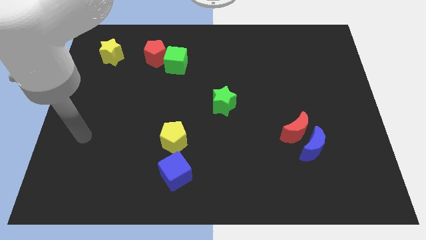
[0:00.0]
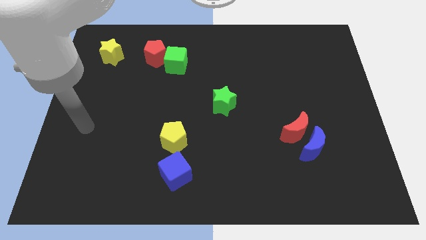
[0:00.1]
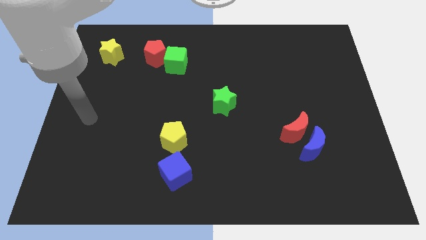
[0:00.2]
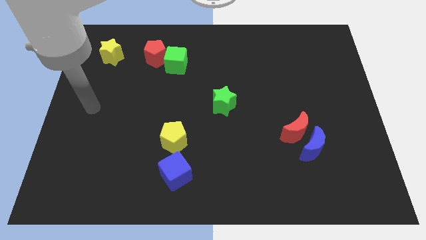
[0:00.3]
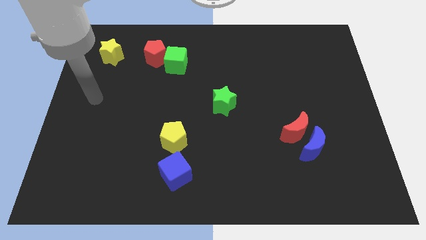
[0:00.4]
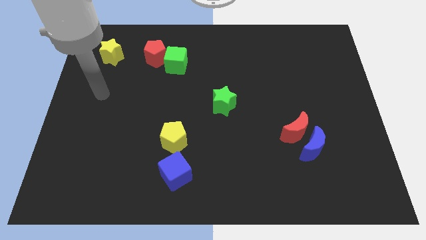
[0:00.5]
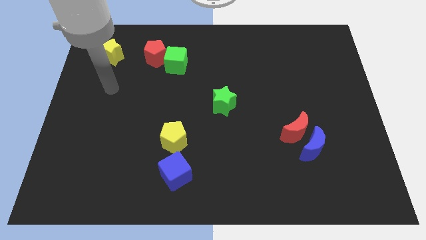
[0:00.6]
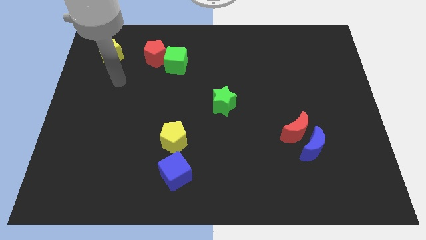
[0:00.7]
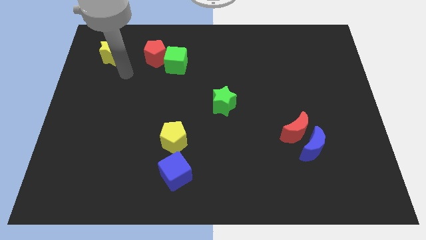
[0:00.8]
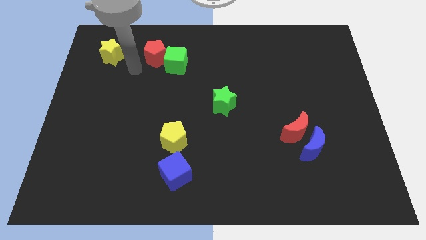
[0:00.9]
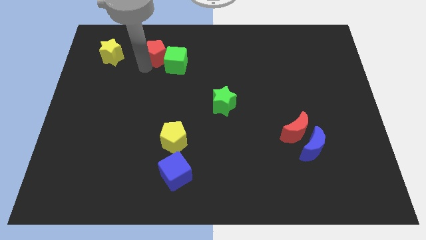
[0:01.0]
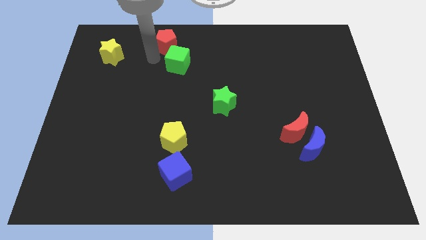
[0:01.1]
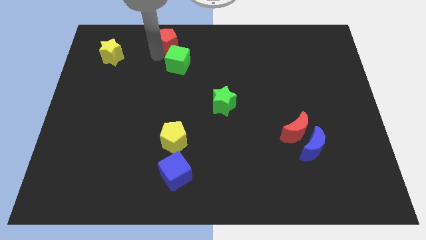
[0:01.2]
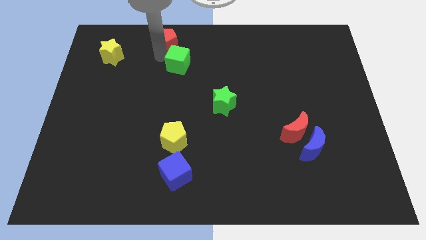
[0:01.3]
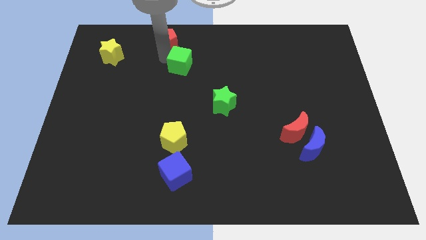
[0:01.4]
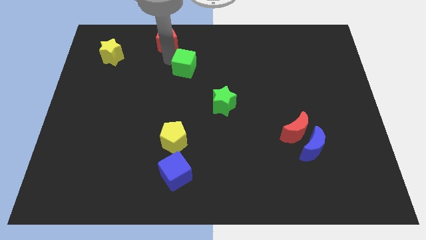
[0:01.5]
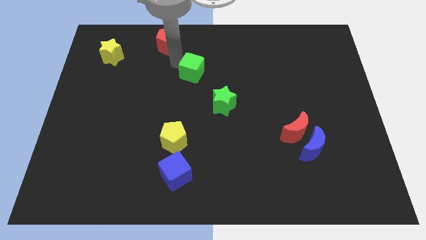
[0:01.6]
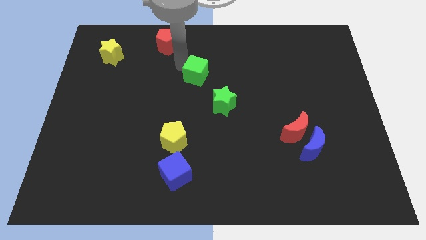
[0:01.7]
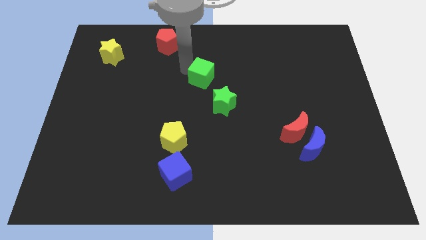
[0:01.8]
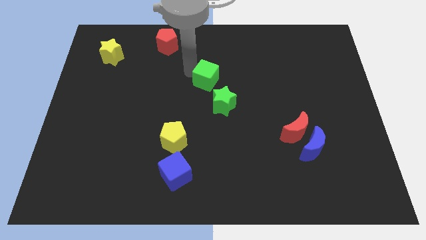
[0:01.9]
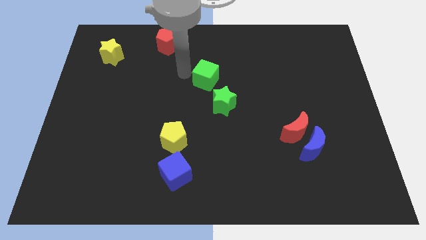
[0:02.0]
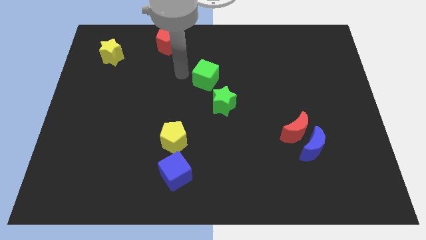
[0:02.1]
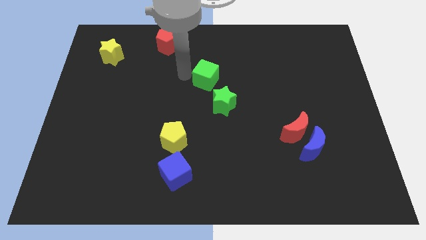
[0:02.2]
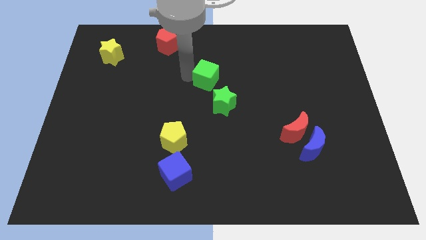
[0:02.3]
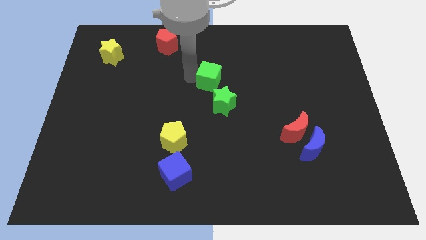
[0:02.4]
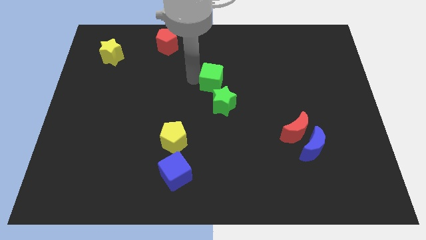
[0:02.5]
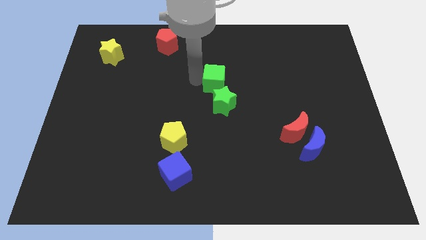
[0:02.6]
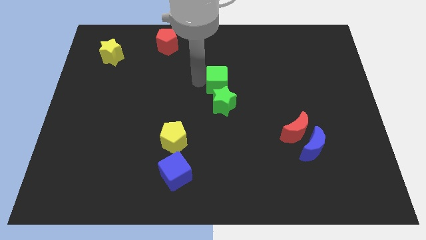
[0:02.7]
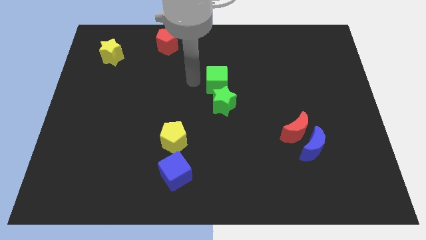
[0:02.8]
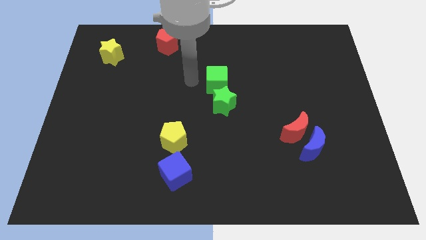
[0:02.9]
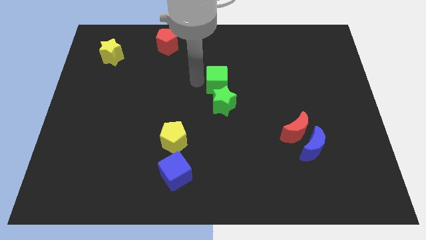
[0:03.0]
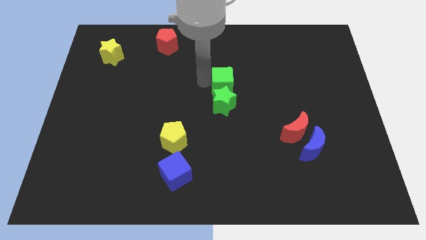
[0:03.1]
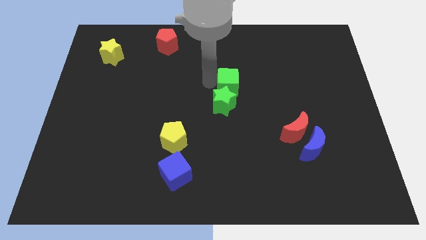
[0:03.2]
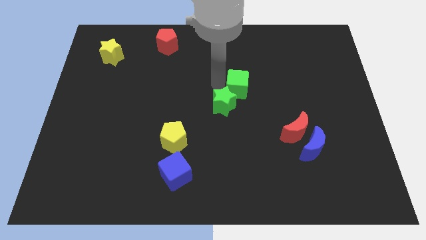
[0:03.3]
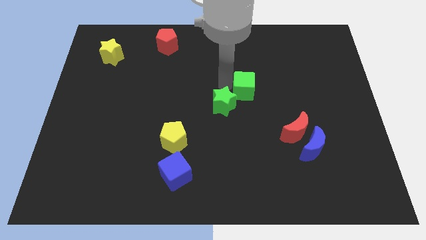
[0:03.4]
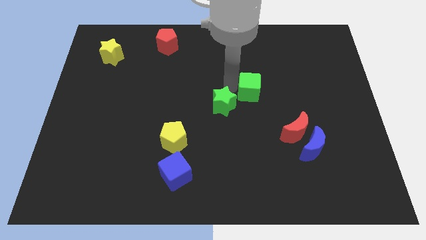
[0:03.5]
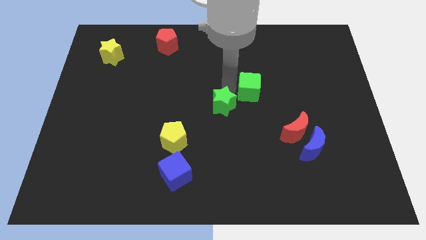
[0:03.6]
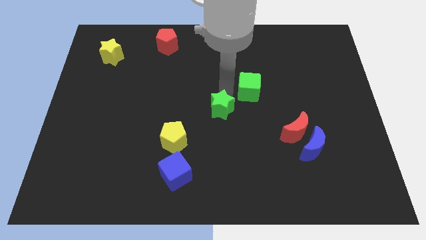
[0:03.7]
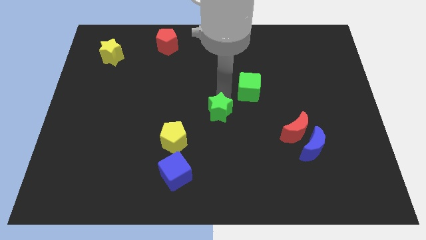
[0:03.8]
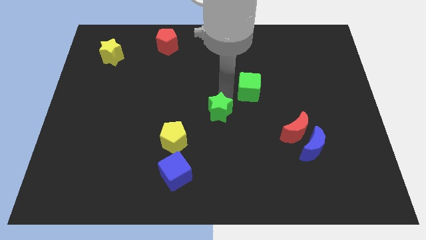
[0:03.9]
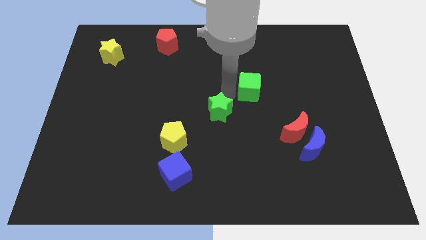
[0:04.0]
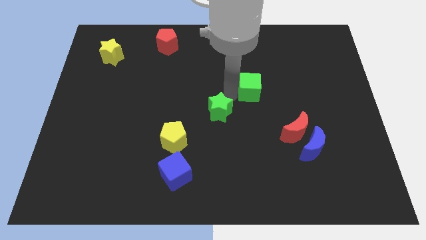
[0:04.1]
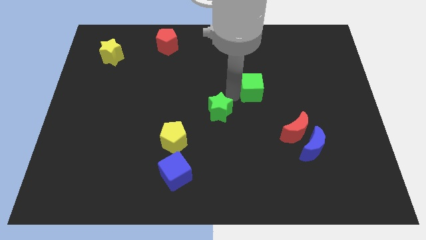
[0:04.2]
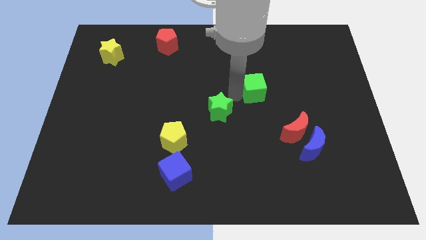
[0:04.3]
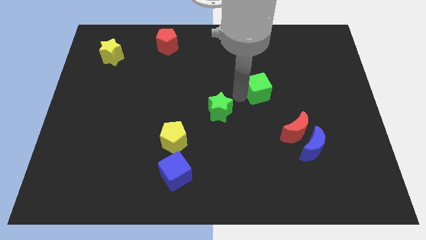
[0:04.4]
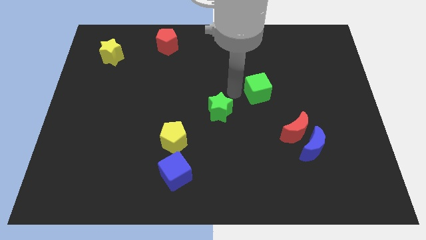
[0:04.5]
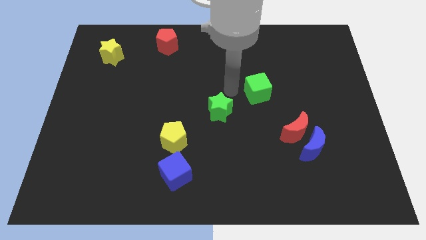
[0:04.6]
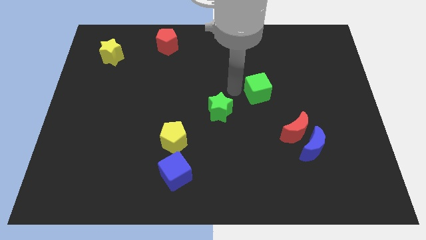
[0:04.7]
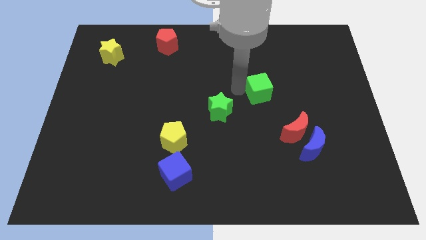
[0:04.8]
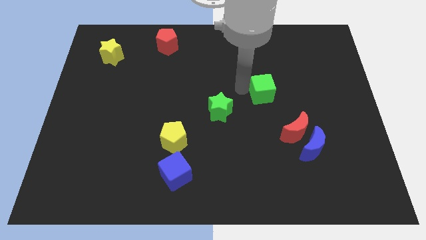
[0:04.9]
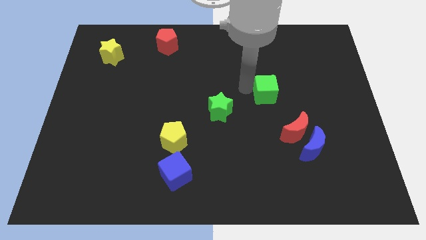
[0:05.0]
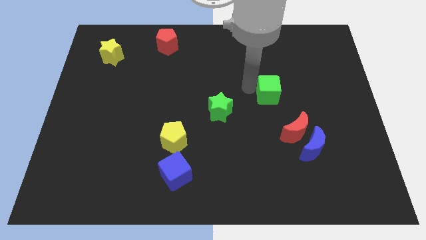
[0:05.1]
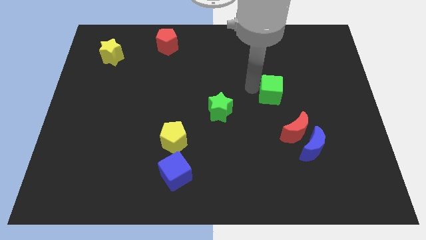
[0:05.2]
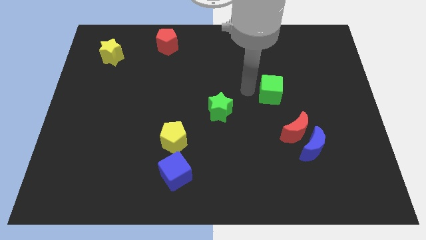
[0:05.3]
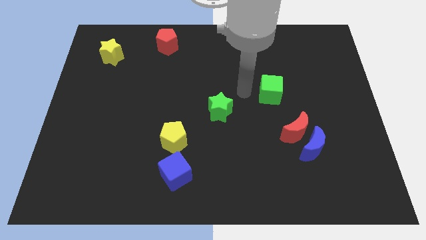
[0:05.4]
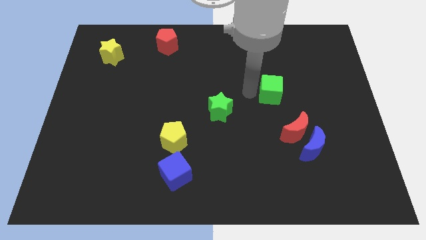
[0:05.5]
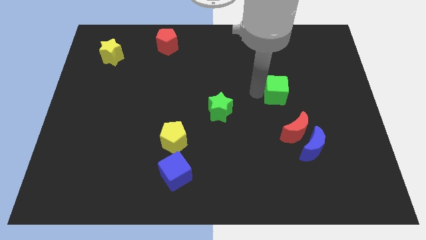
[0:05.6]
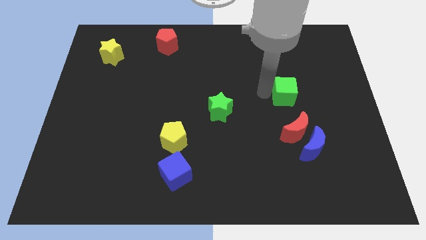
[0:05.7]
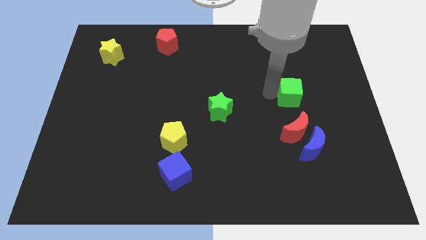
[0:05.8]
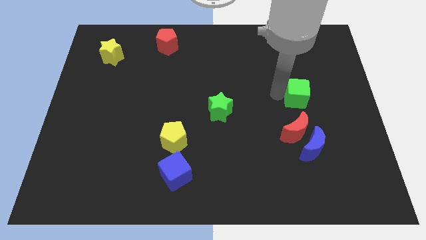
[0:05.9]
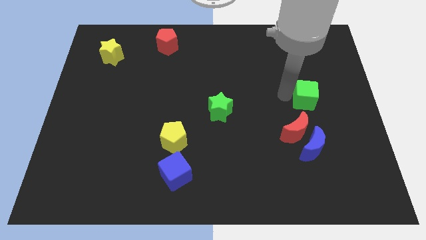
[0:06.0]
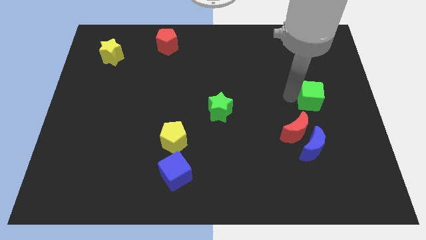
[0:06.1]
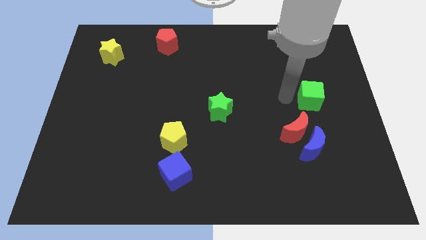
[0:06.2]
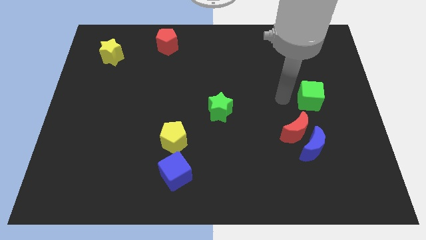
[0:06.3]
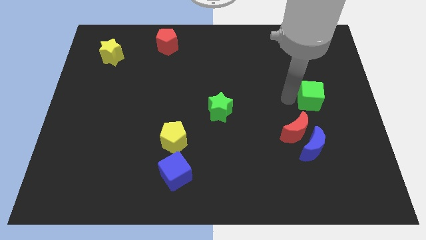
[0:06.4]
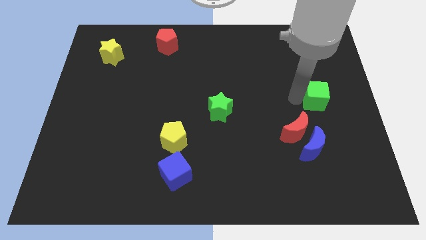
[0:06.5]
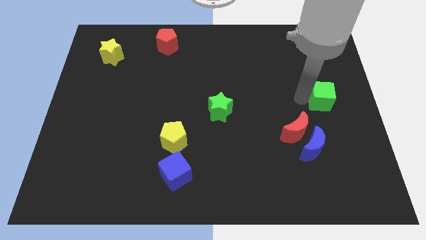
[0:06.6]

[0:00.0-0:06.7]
move the green cube to the right side

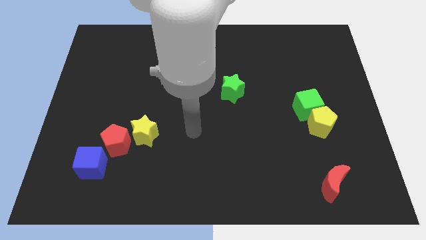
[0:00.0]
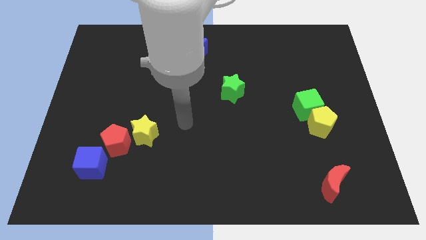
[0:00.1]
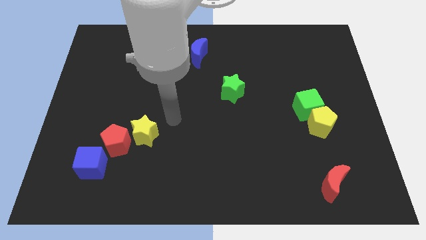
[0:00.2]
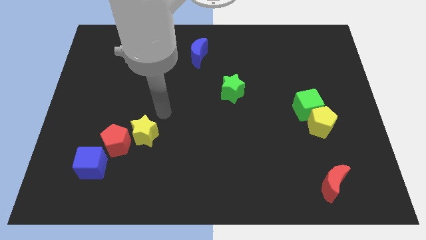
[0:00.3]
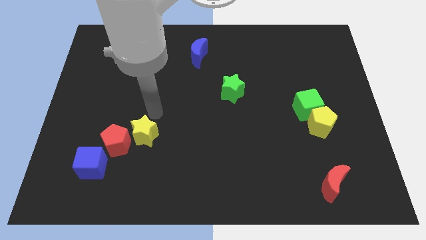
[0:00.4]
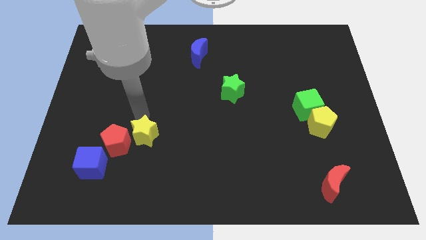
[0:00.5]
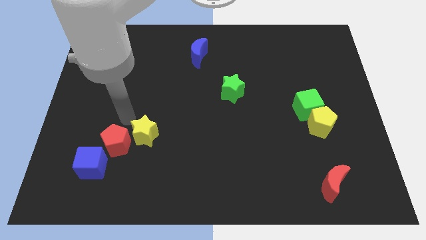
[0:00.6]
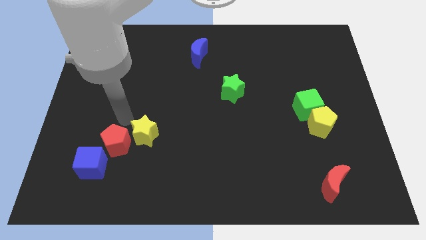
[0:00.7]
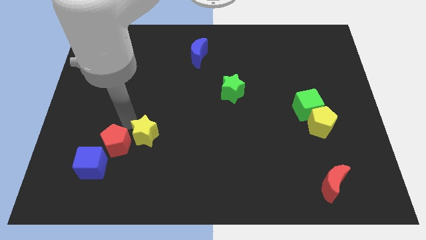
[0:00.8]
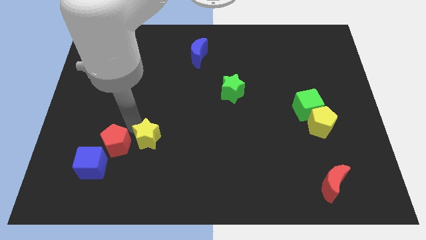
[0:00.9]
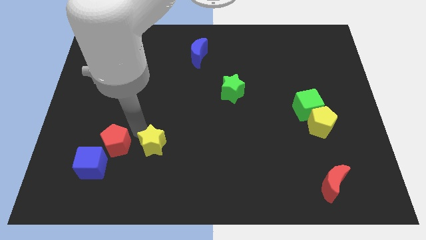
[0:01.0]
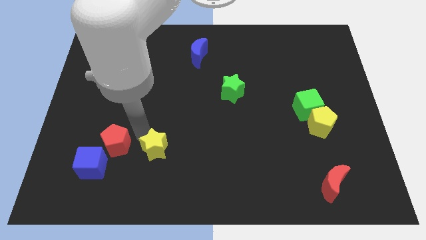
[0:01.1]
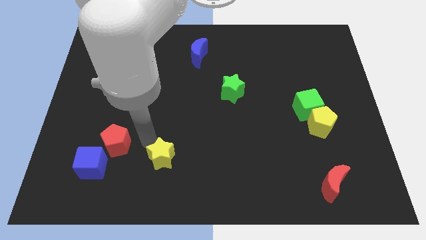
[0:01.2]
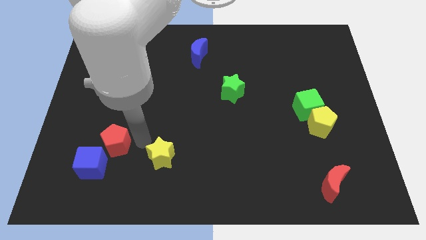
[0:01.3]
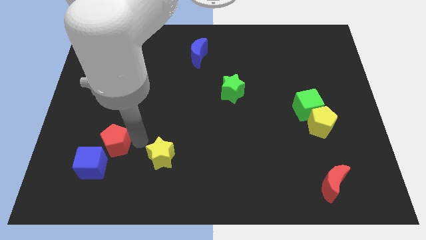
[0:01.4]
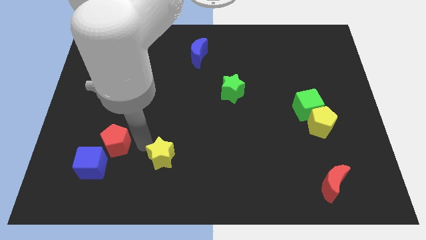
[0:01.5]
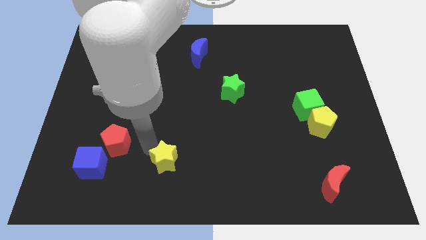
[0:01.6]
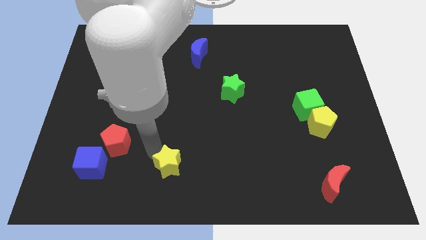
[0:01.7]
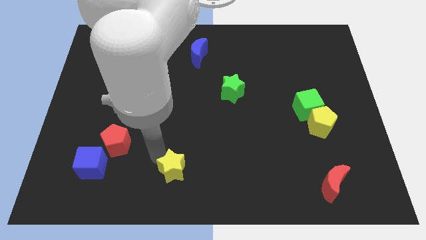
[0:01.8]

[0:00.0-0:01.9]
slide the yellow star to the bottom side
